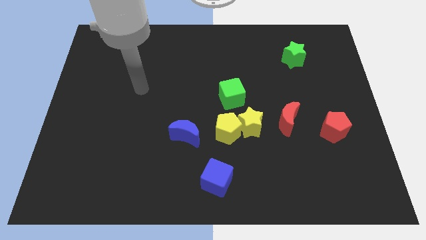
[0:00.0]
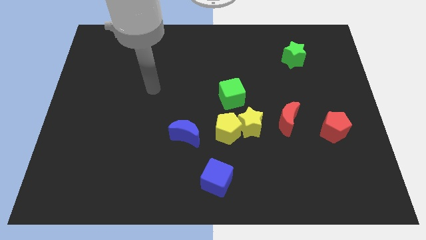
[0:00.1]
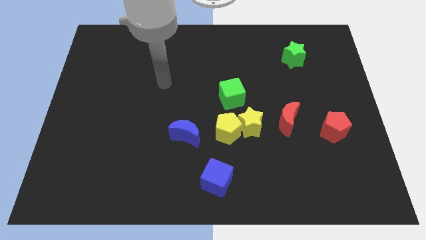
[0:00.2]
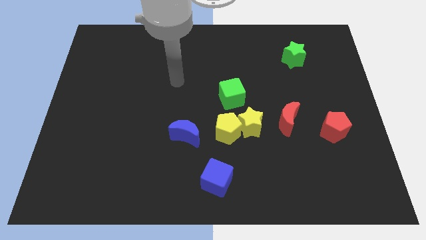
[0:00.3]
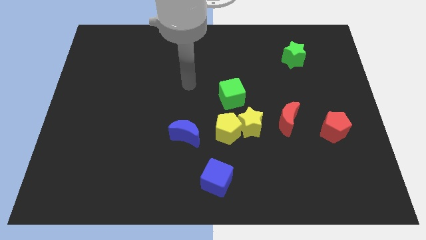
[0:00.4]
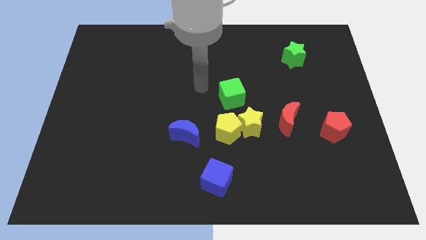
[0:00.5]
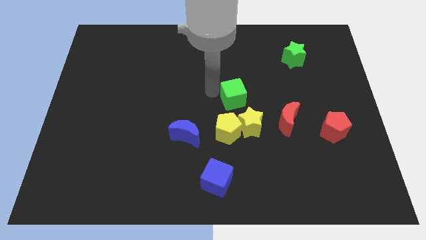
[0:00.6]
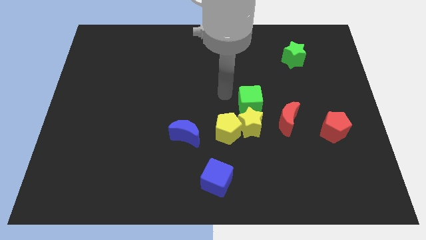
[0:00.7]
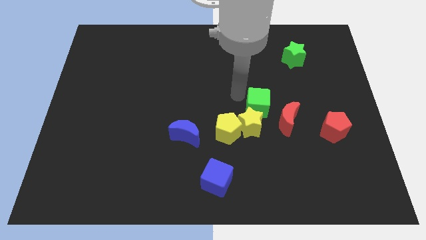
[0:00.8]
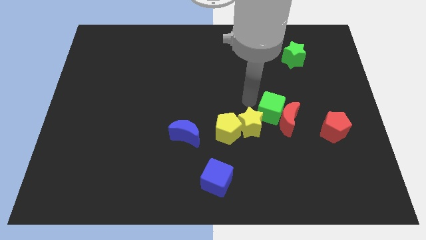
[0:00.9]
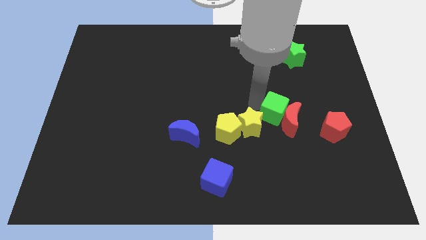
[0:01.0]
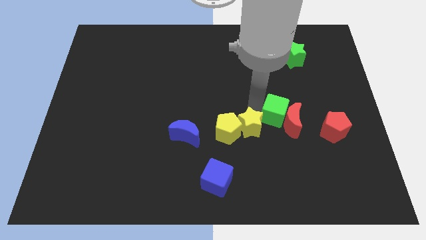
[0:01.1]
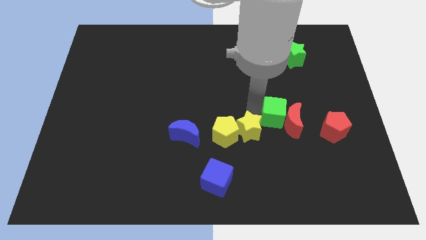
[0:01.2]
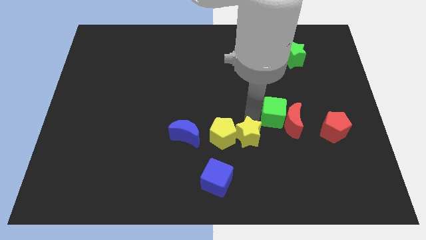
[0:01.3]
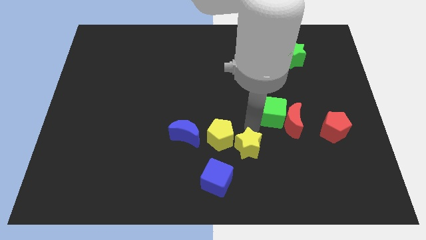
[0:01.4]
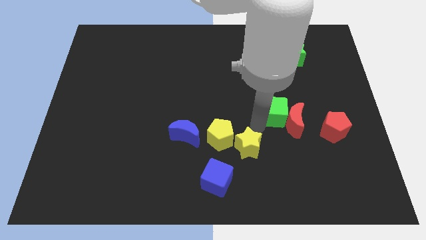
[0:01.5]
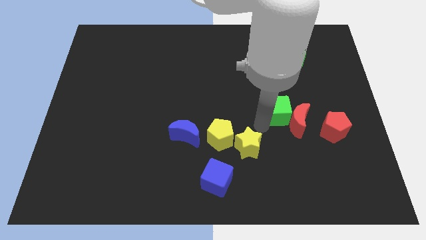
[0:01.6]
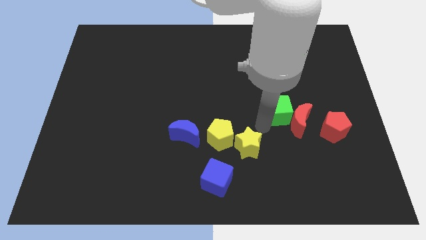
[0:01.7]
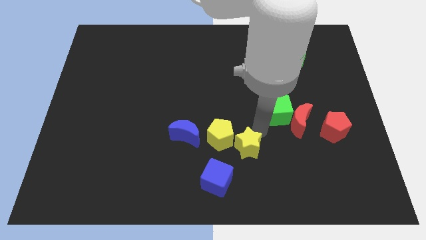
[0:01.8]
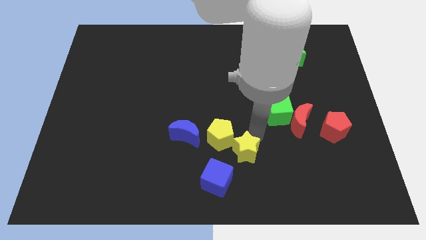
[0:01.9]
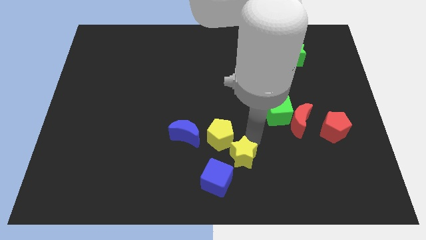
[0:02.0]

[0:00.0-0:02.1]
move the yellow star away from the group

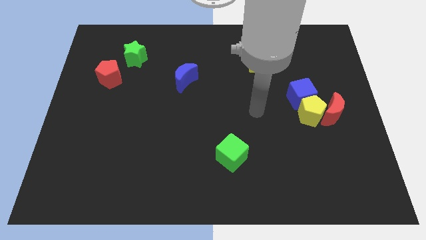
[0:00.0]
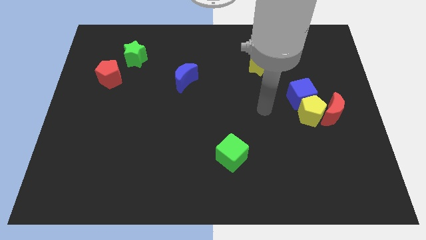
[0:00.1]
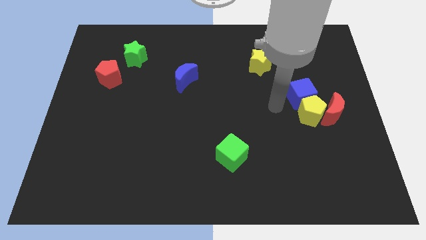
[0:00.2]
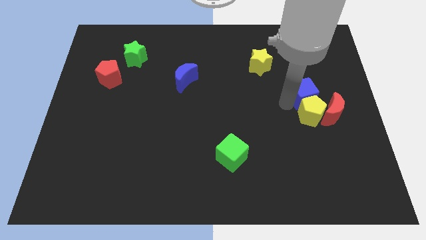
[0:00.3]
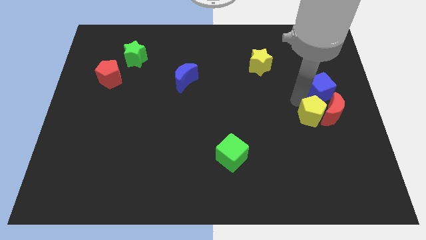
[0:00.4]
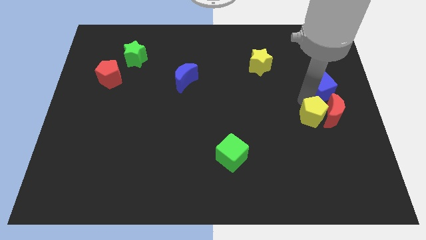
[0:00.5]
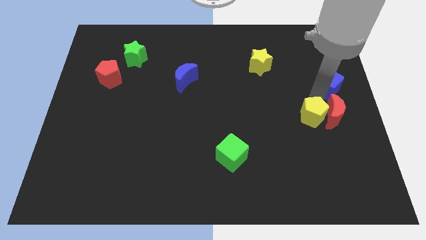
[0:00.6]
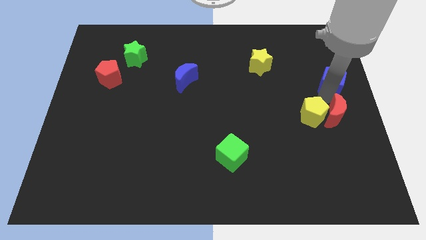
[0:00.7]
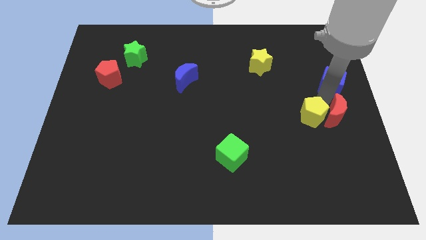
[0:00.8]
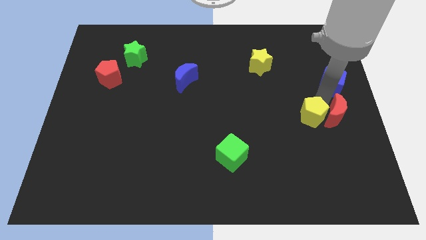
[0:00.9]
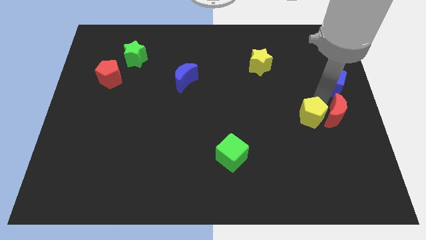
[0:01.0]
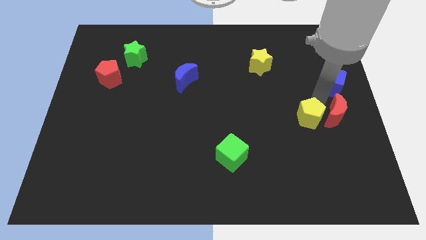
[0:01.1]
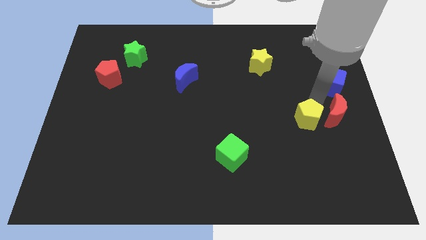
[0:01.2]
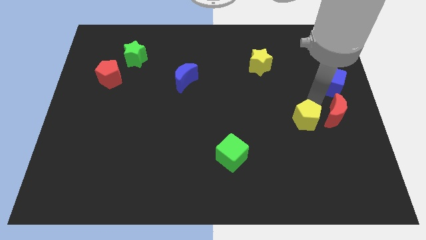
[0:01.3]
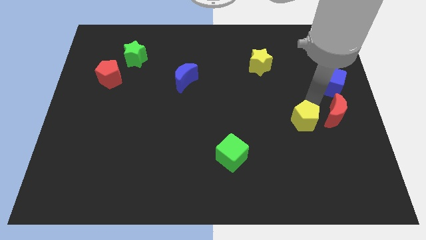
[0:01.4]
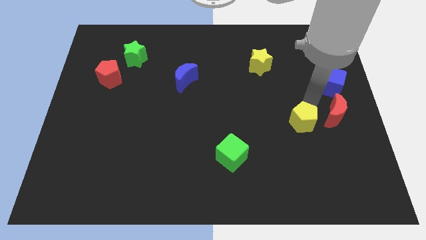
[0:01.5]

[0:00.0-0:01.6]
move the yellow pentagon away from the red moon and blue cube

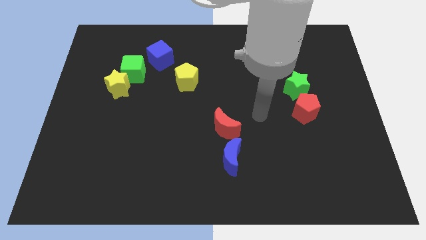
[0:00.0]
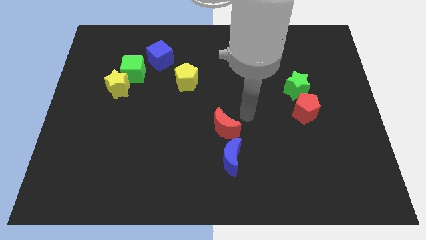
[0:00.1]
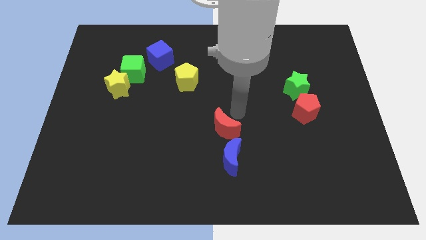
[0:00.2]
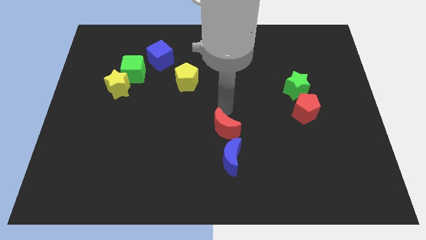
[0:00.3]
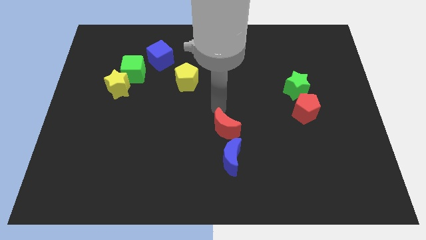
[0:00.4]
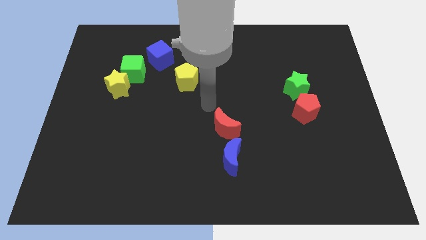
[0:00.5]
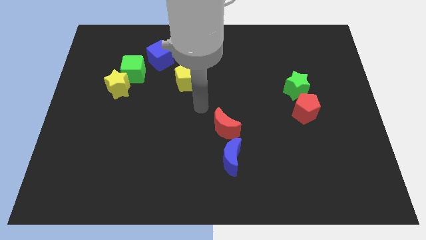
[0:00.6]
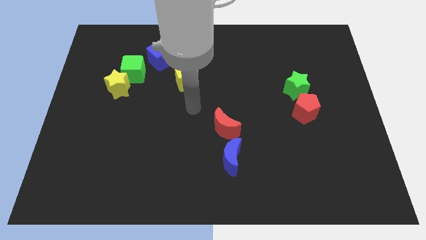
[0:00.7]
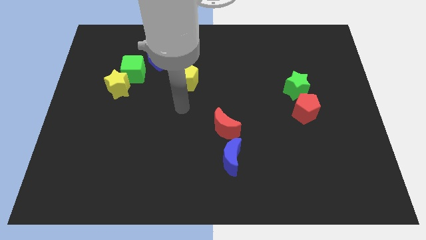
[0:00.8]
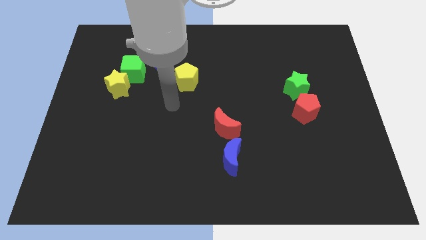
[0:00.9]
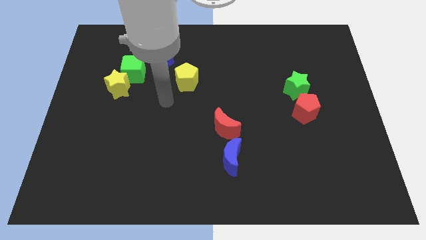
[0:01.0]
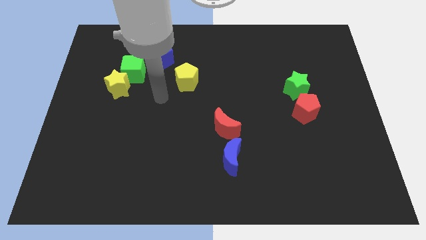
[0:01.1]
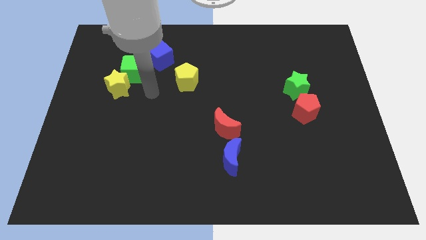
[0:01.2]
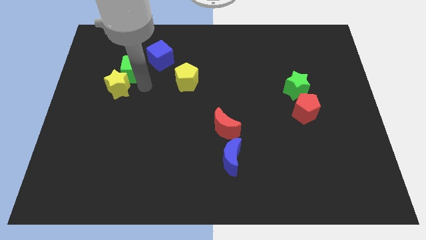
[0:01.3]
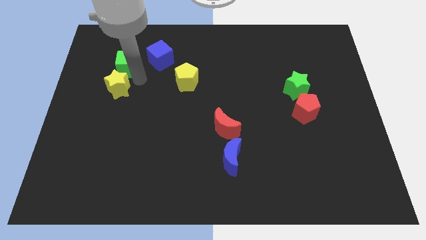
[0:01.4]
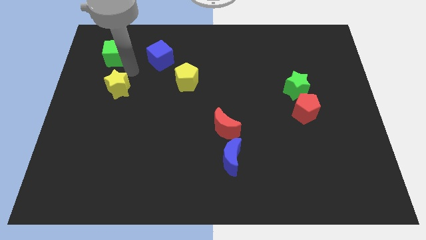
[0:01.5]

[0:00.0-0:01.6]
move the yellow star away from the green cube

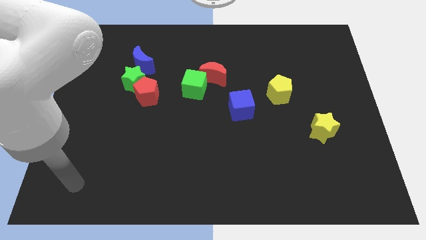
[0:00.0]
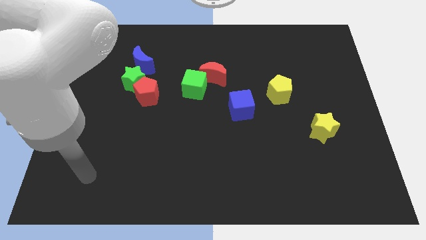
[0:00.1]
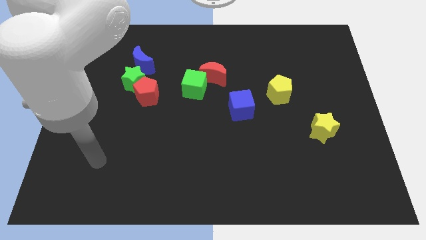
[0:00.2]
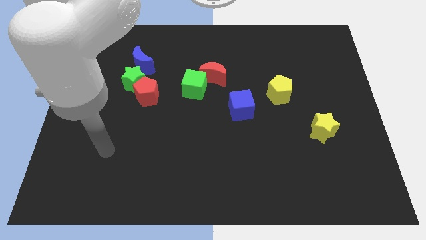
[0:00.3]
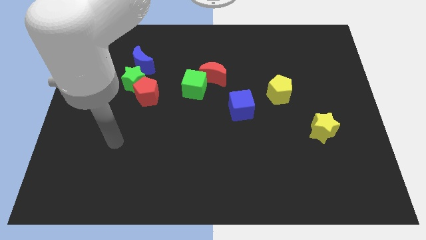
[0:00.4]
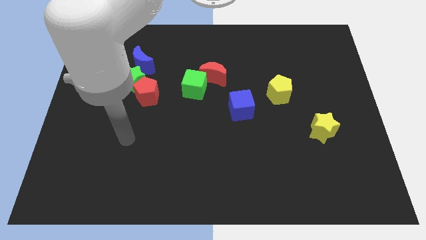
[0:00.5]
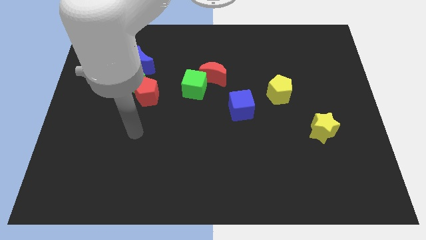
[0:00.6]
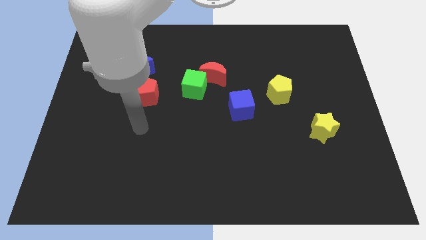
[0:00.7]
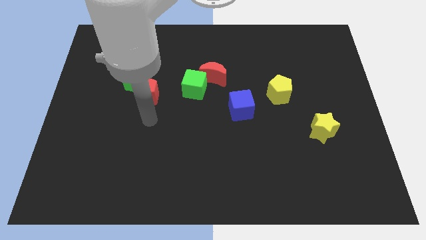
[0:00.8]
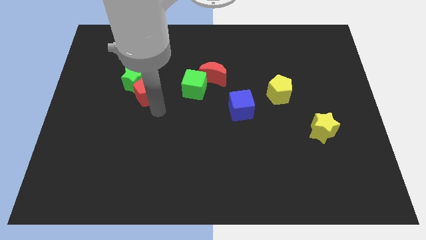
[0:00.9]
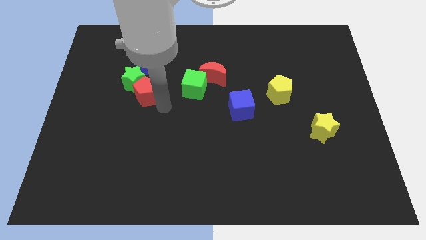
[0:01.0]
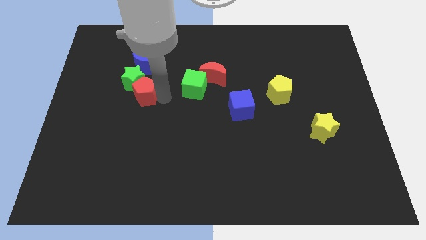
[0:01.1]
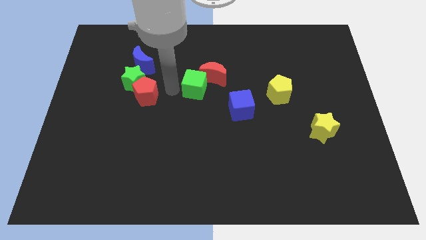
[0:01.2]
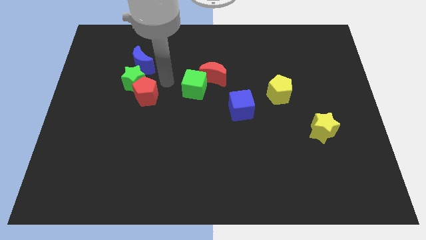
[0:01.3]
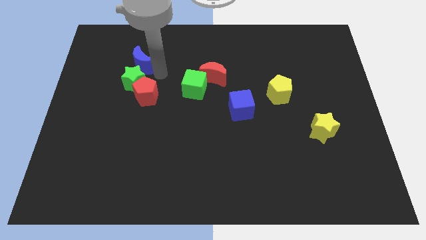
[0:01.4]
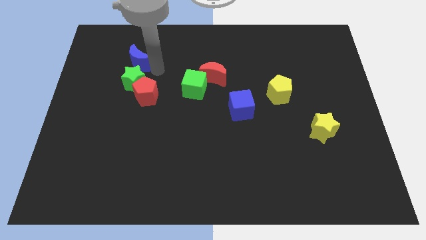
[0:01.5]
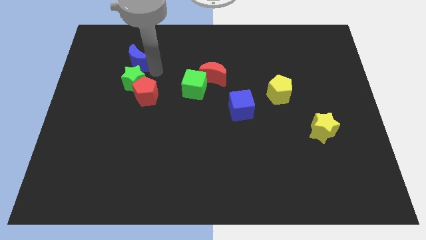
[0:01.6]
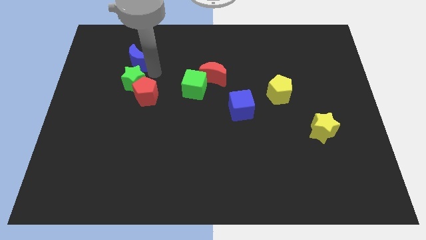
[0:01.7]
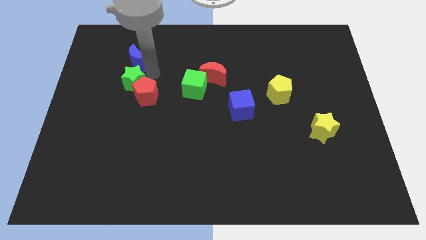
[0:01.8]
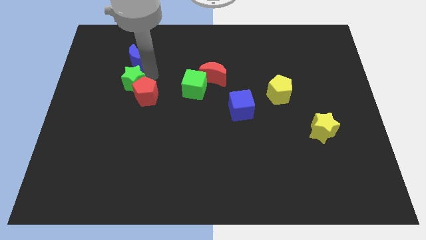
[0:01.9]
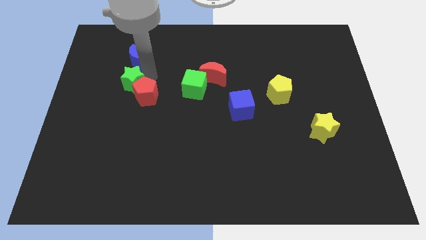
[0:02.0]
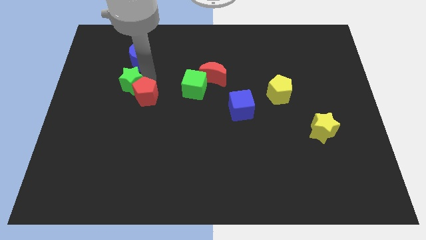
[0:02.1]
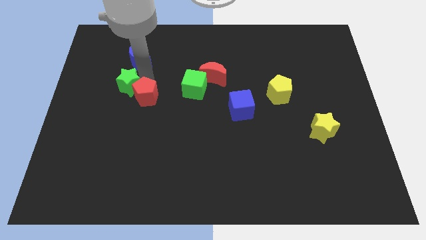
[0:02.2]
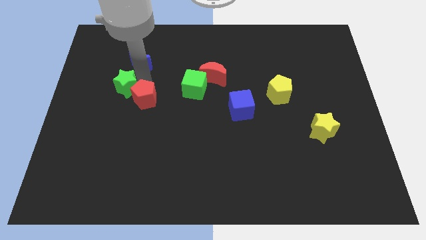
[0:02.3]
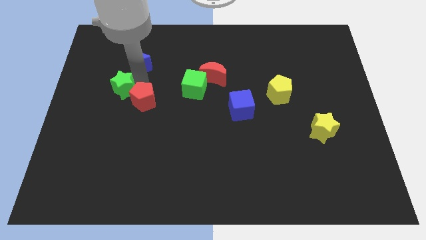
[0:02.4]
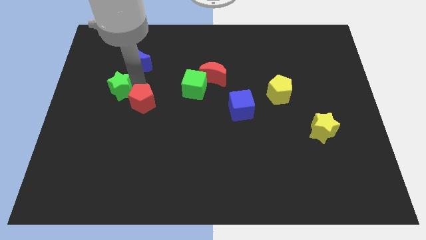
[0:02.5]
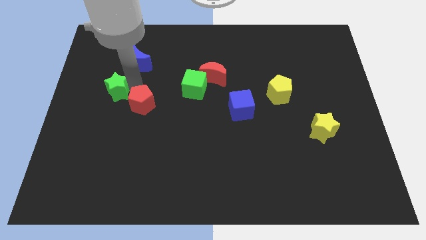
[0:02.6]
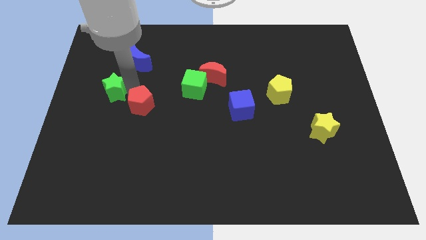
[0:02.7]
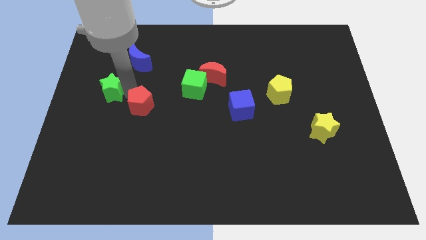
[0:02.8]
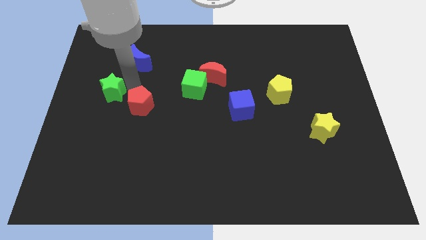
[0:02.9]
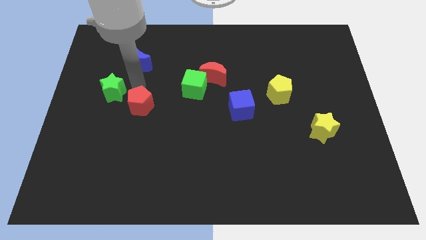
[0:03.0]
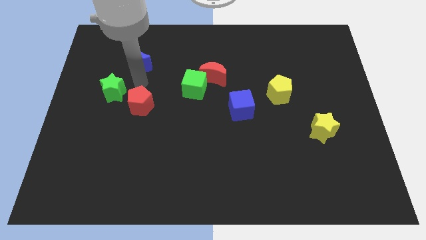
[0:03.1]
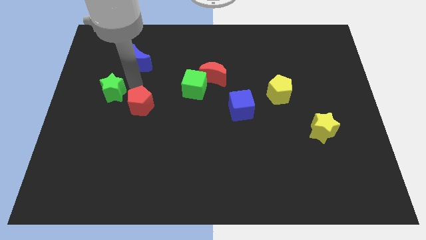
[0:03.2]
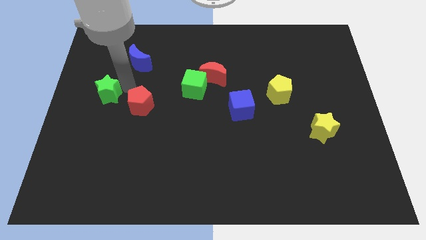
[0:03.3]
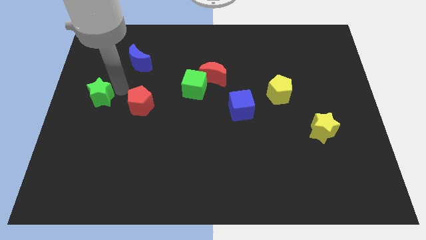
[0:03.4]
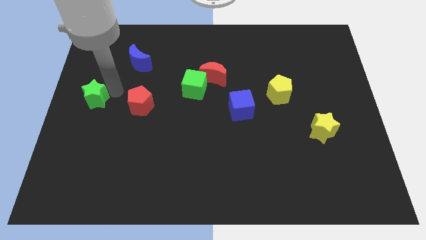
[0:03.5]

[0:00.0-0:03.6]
move the green star away from the red pentagon and blue moon

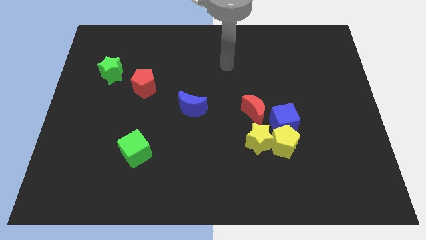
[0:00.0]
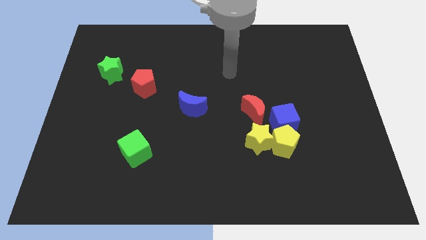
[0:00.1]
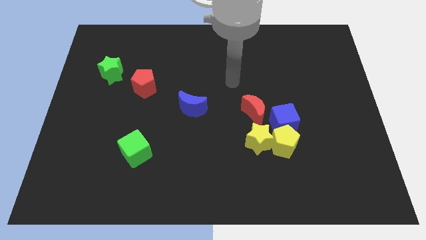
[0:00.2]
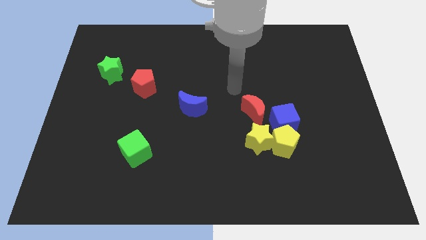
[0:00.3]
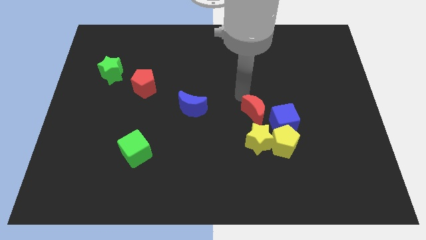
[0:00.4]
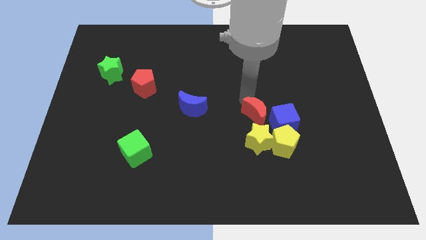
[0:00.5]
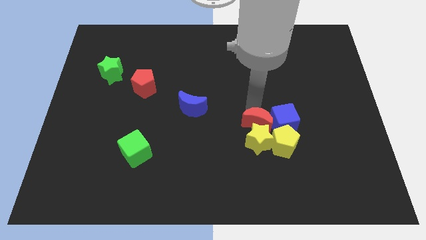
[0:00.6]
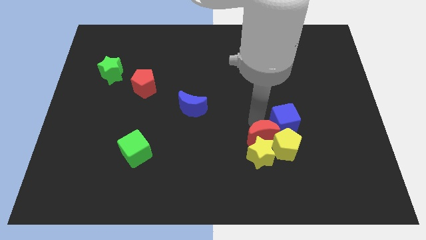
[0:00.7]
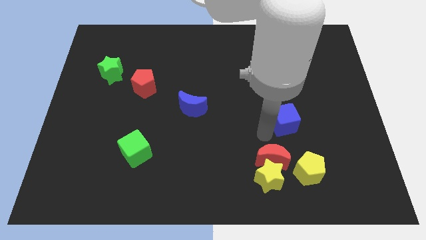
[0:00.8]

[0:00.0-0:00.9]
move the blue cube away from the yellow pentagon, red moon, and yellow star
